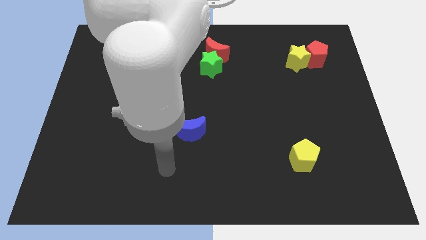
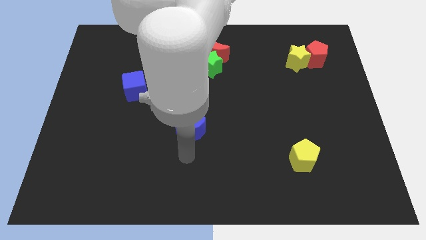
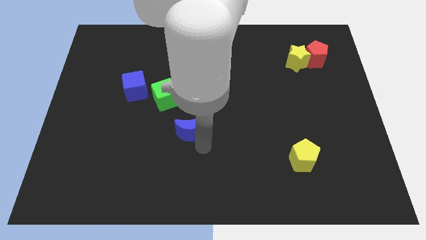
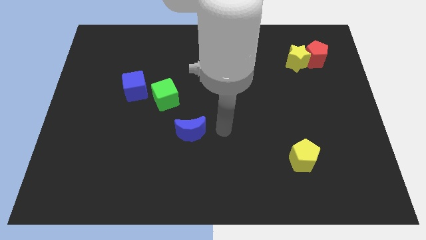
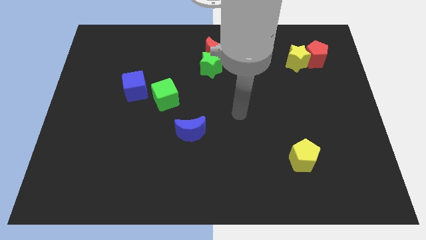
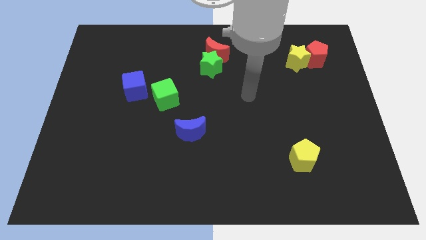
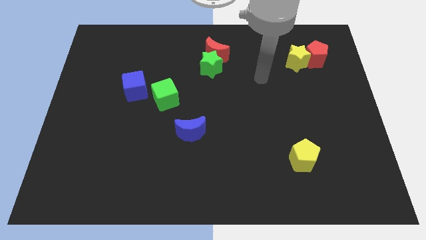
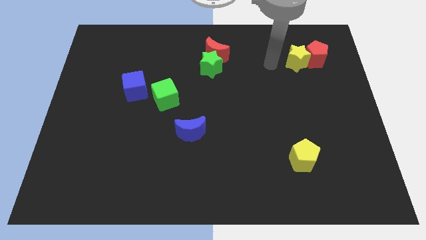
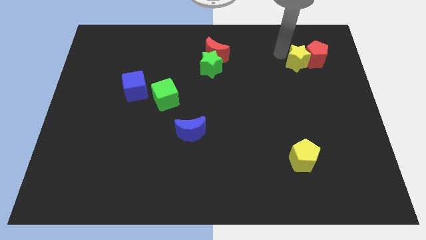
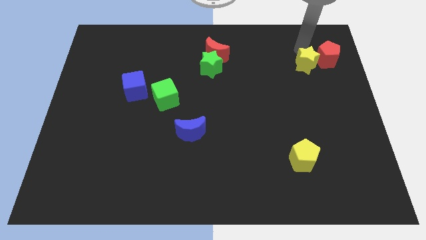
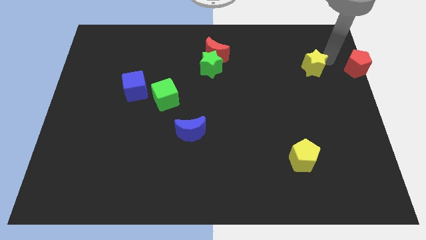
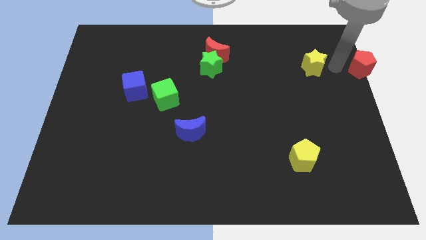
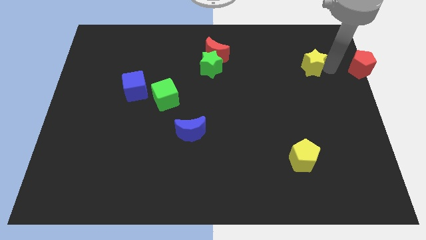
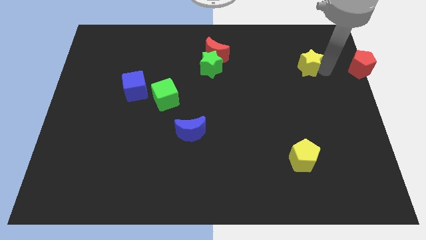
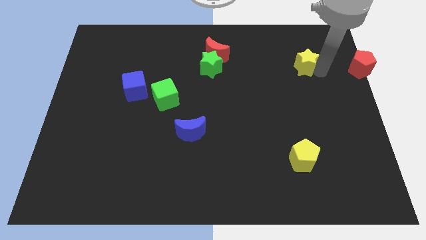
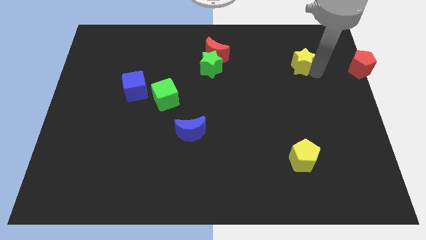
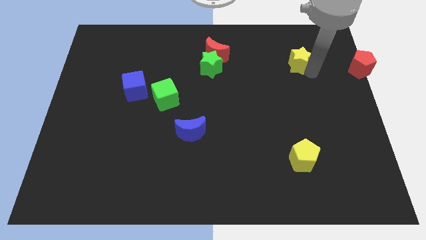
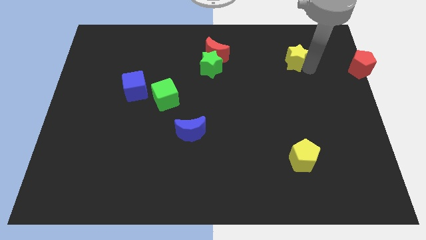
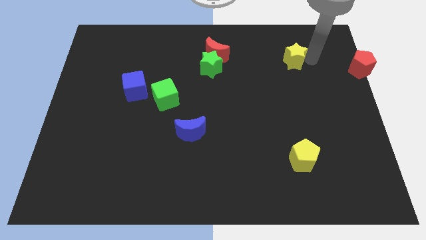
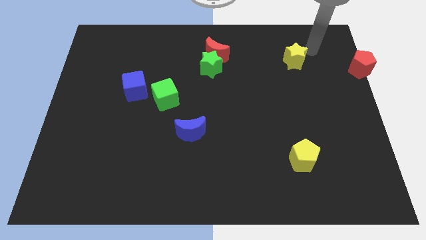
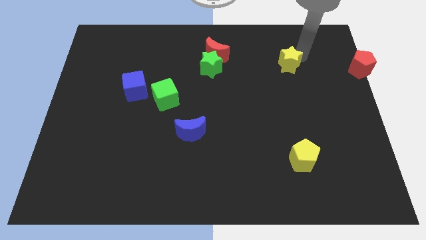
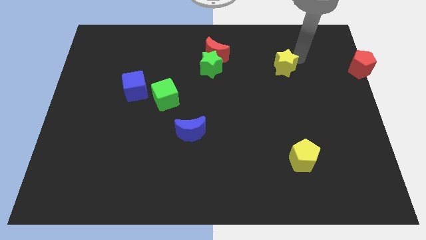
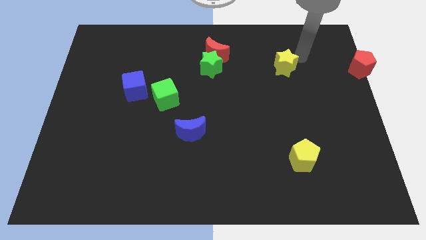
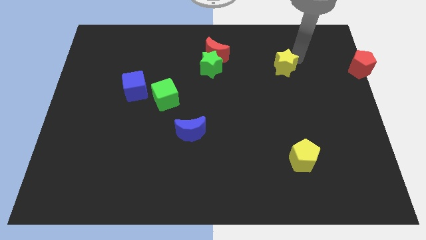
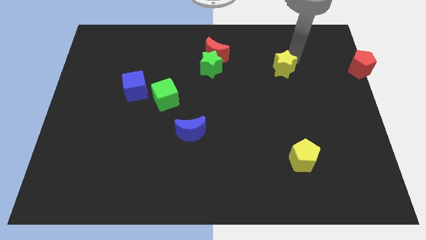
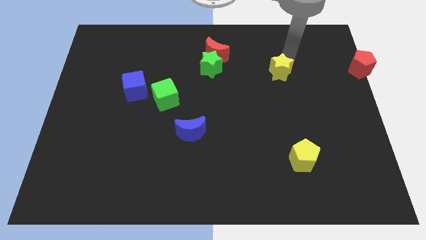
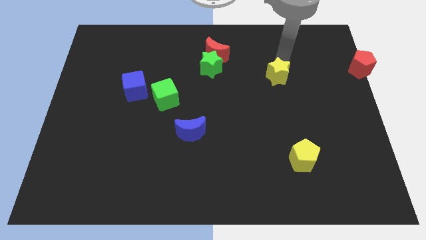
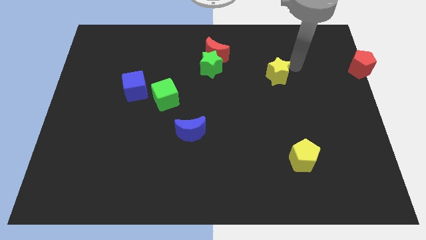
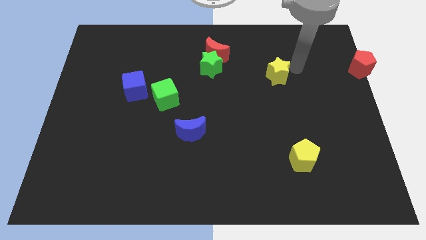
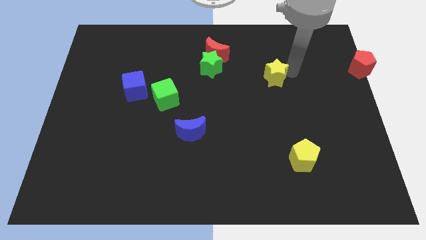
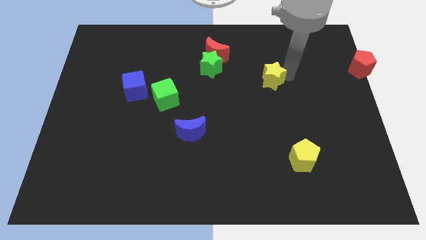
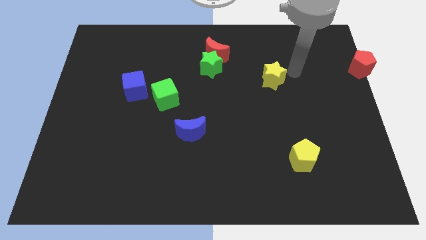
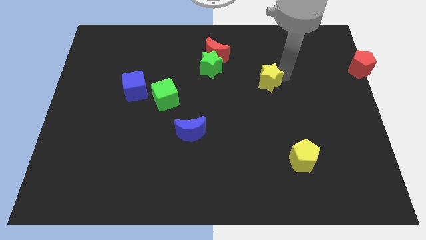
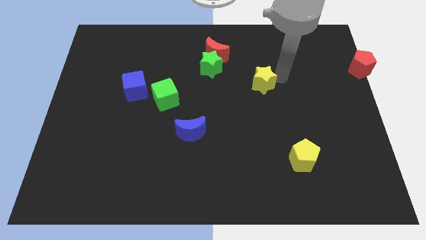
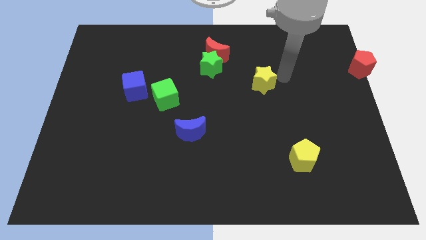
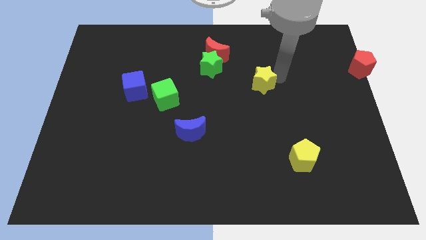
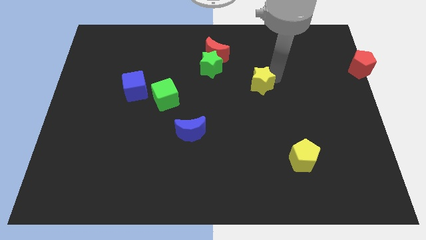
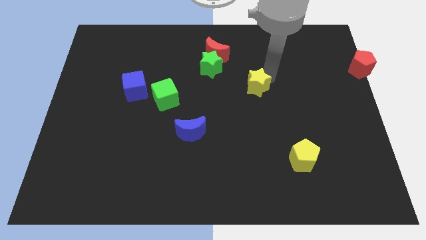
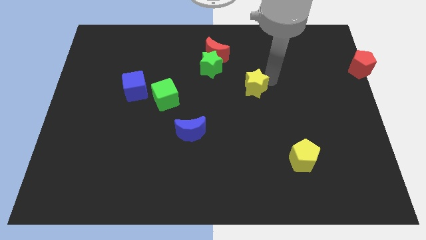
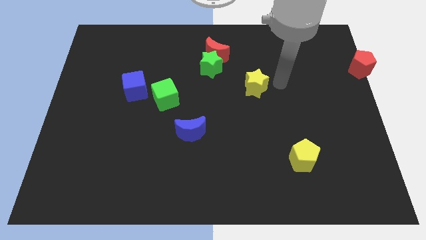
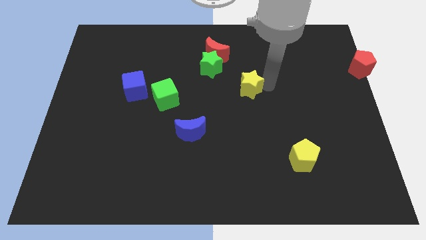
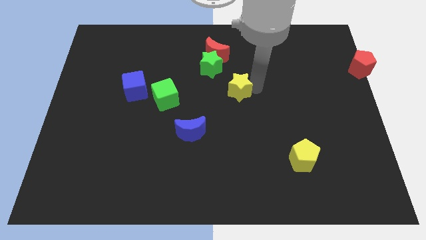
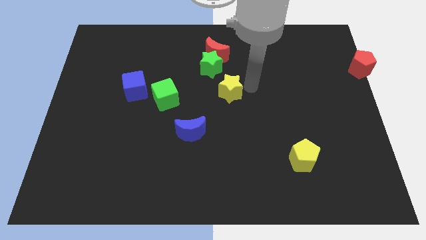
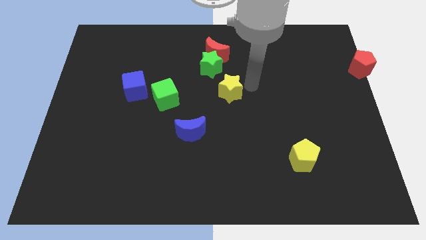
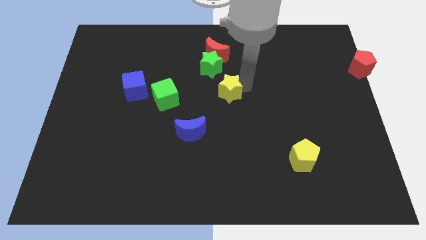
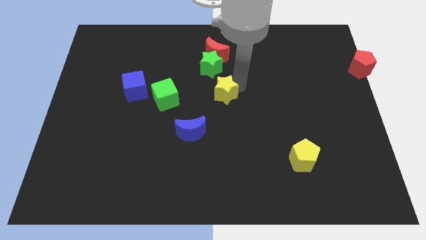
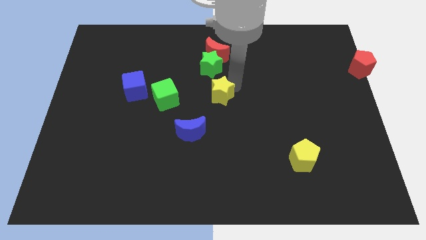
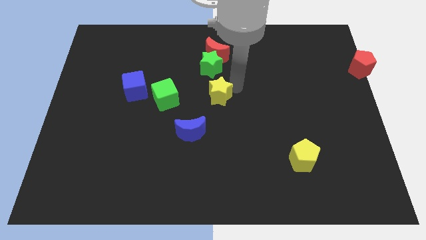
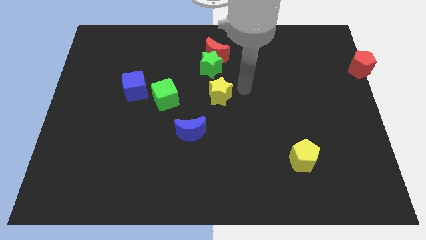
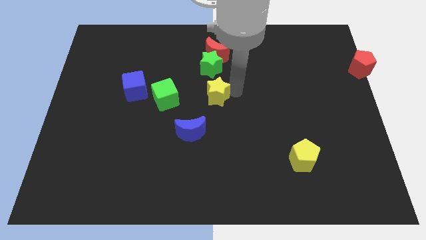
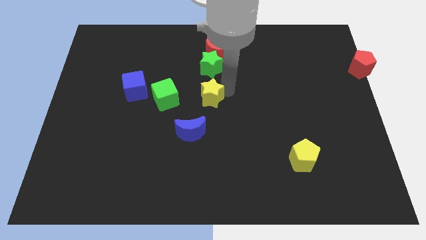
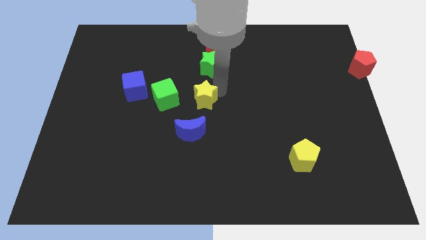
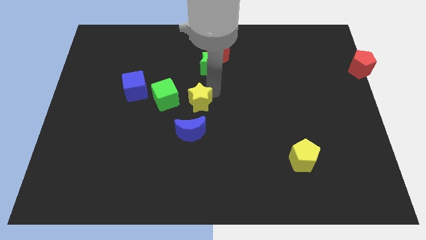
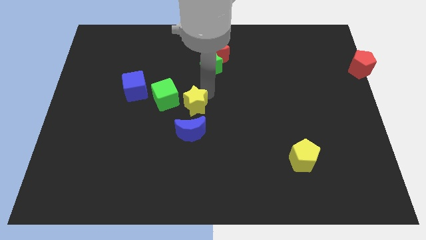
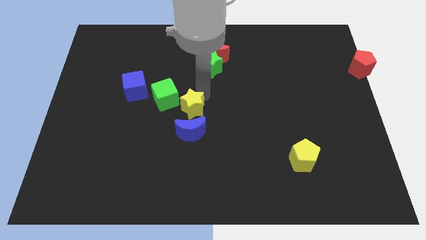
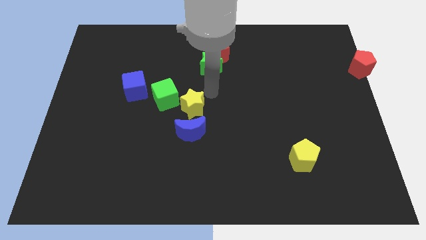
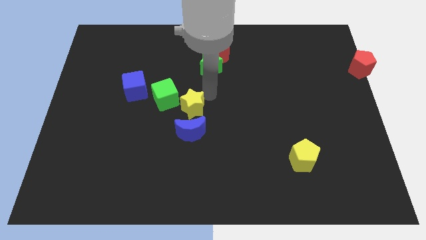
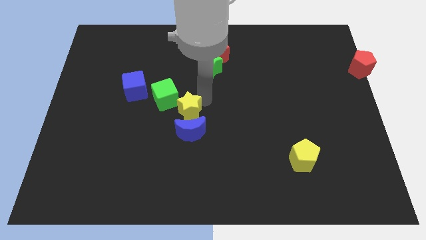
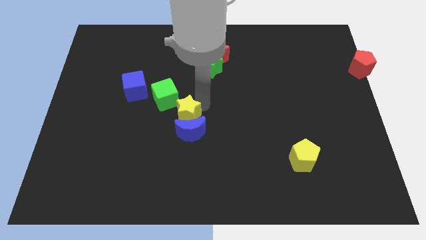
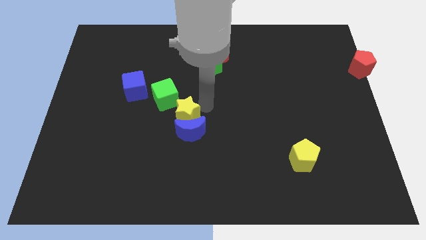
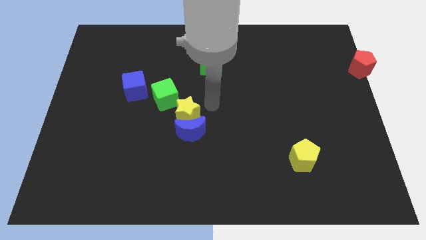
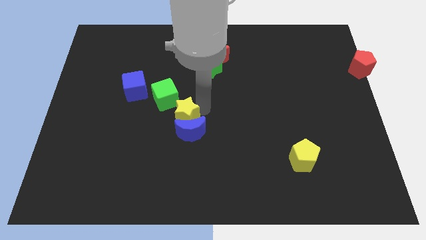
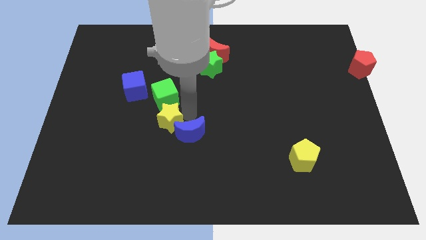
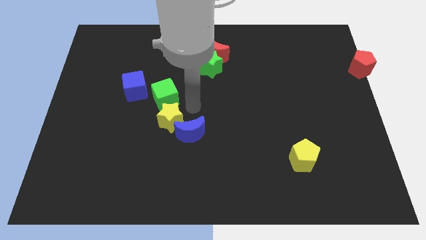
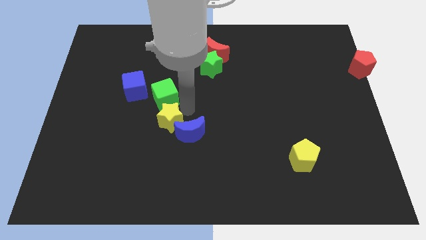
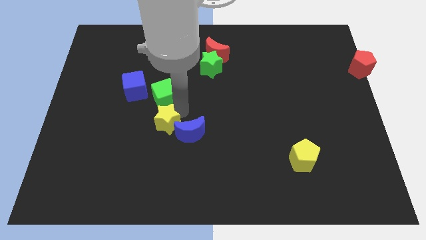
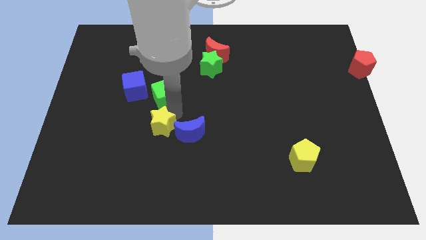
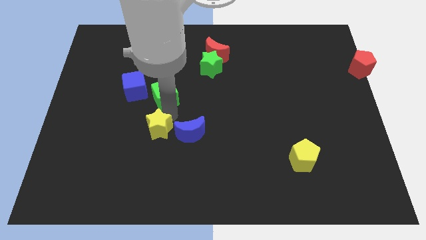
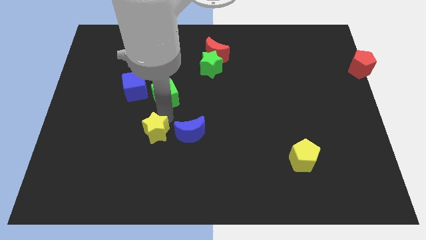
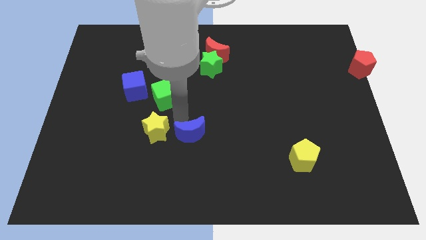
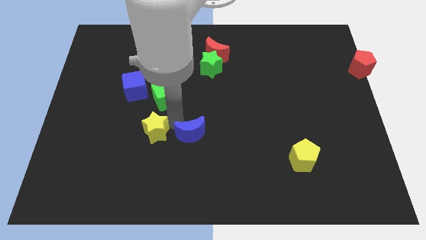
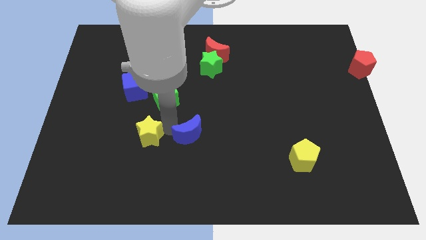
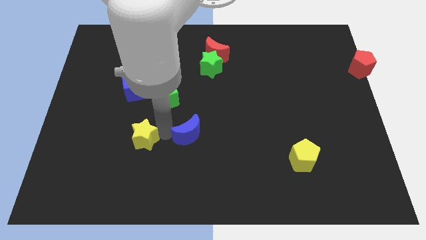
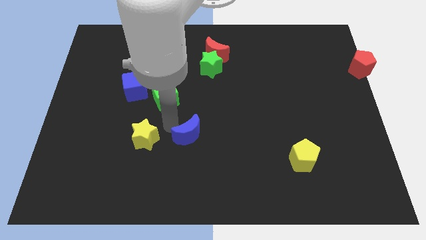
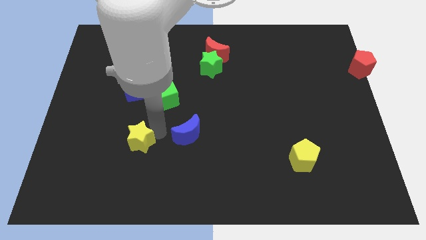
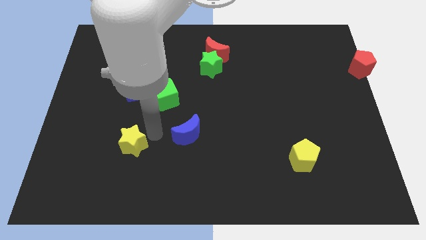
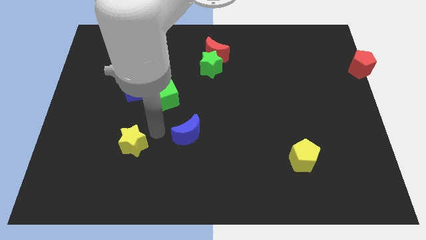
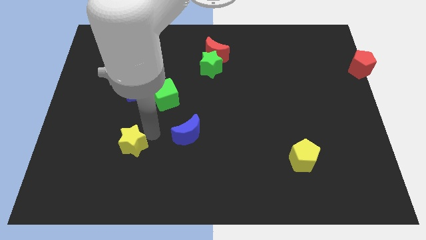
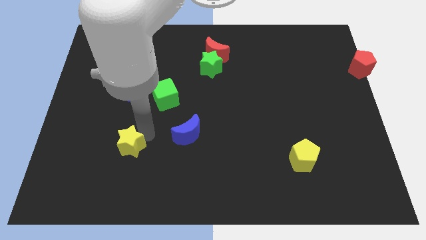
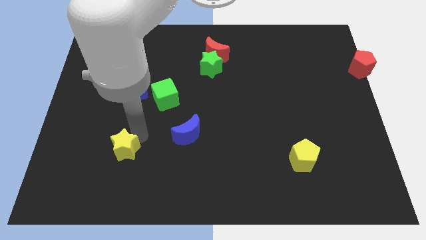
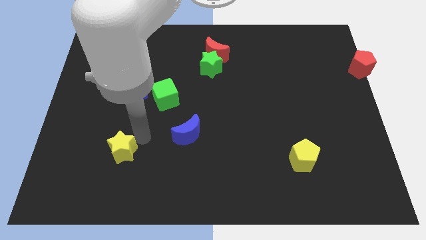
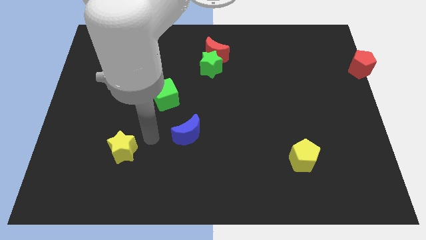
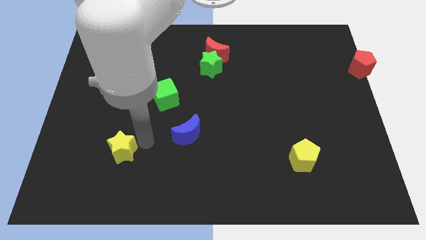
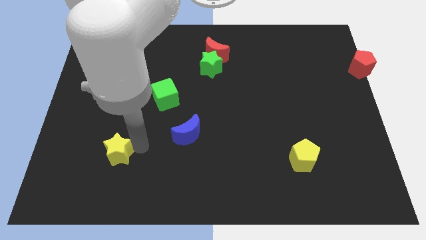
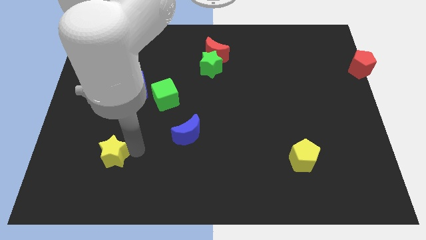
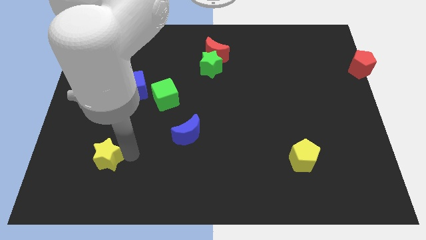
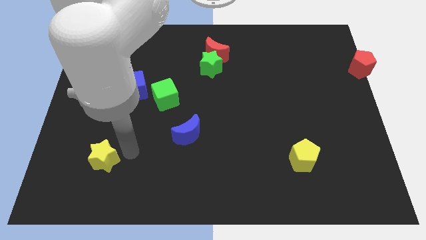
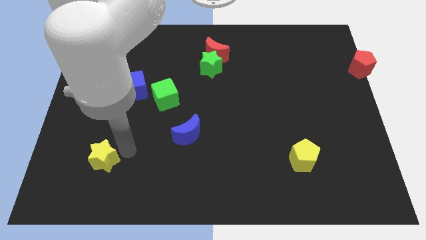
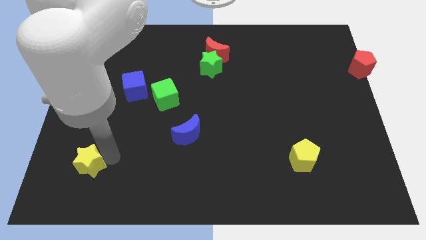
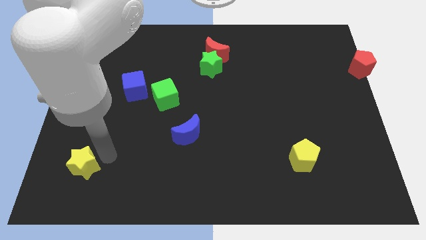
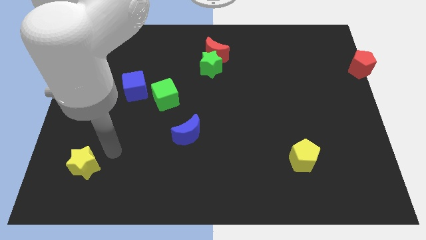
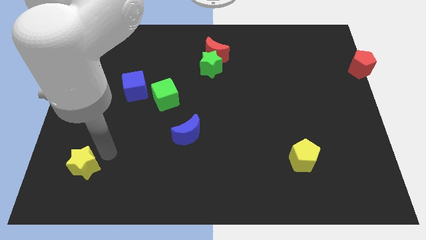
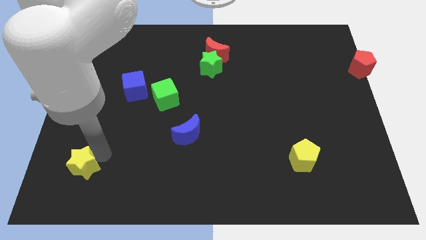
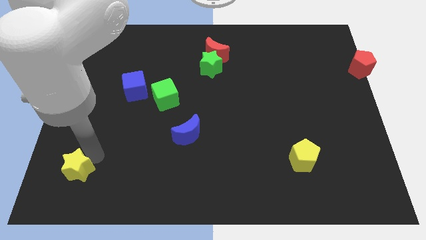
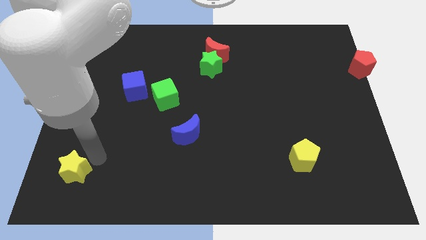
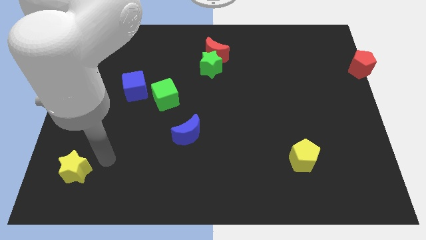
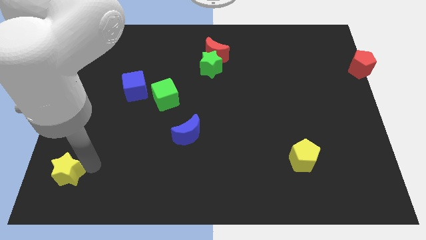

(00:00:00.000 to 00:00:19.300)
put the yellow star to the bottom left
